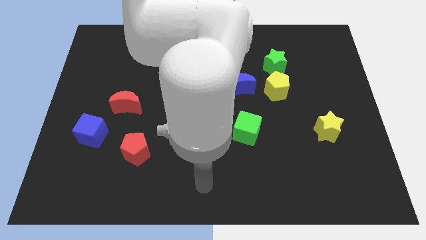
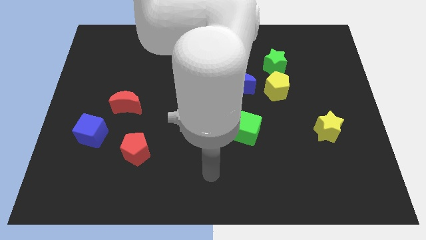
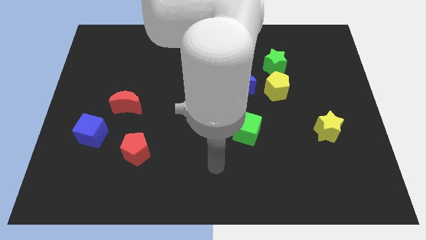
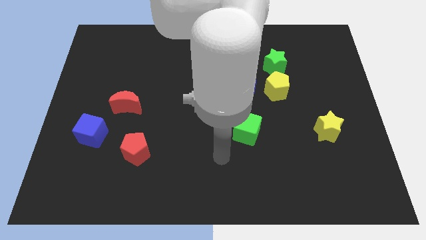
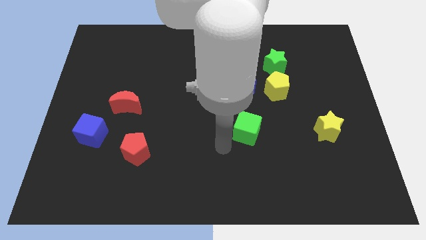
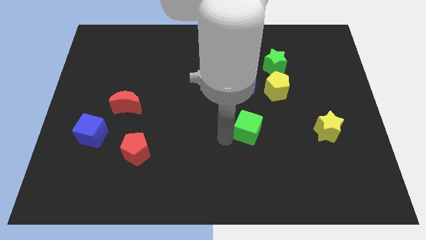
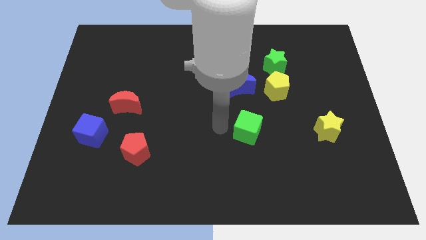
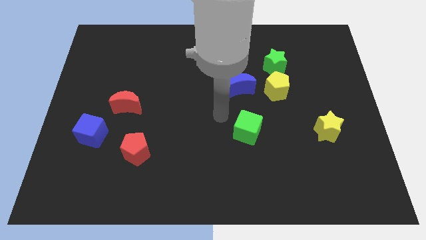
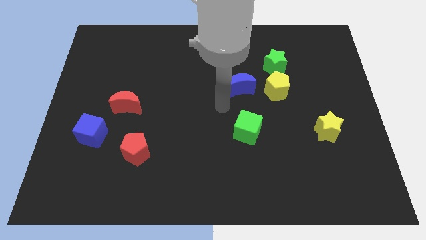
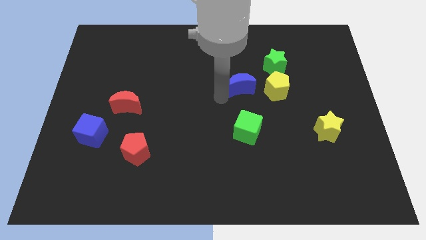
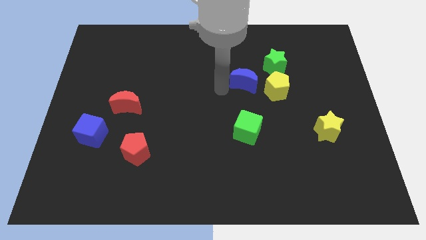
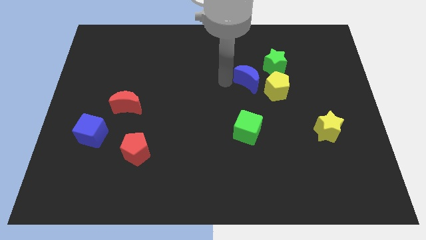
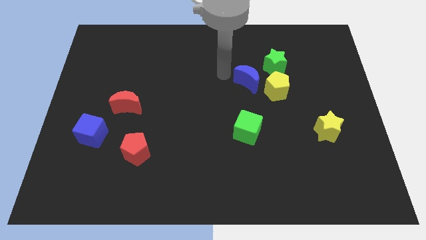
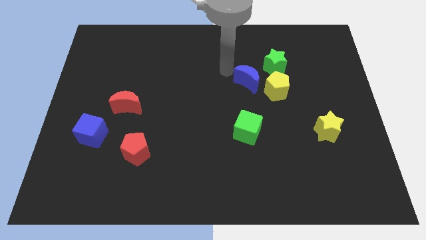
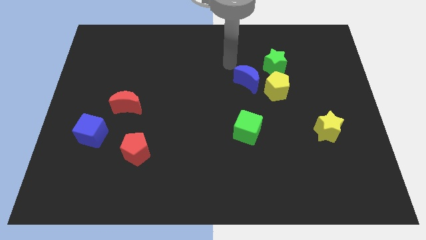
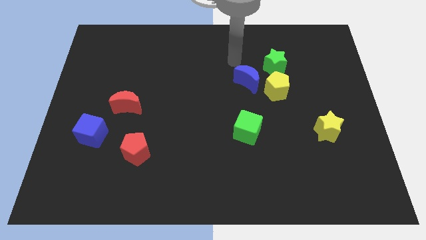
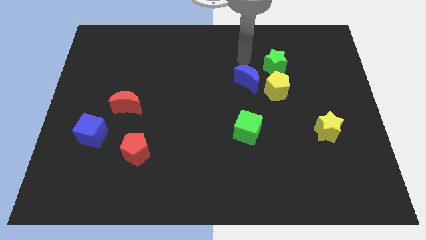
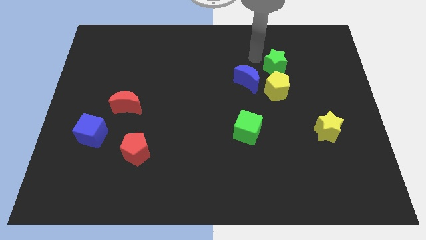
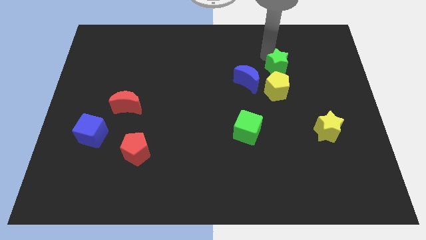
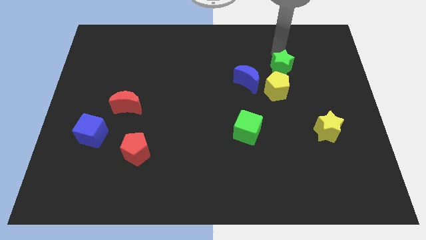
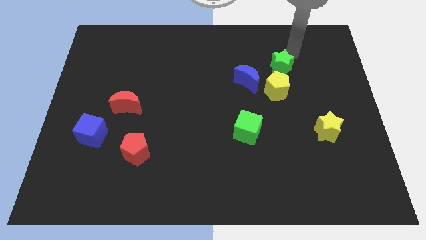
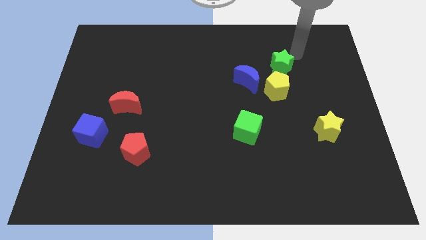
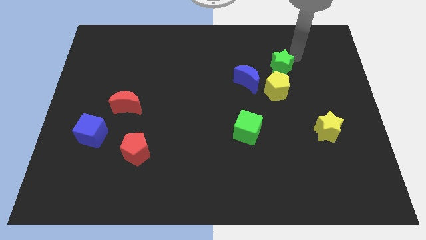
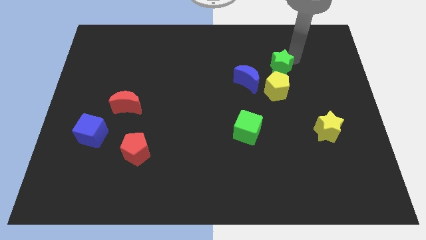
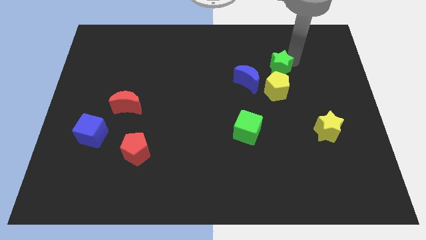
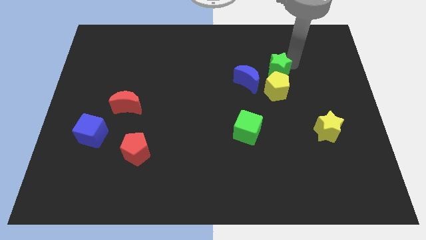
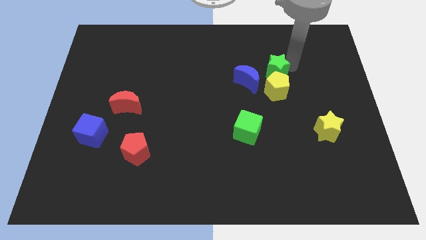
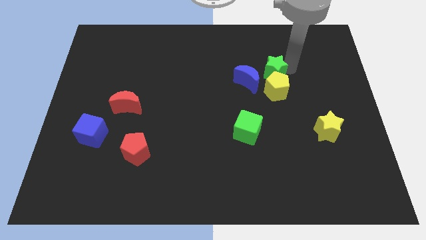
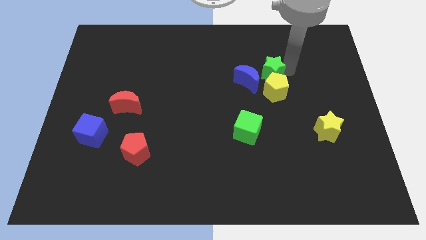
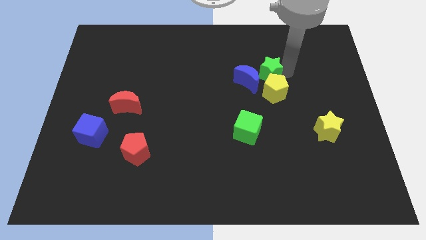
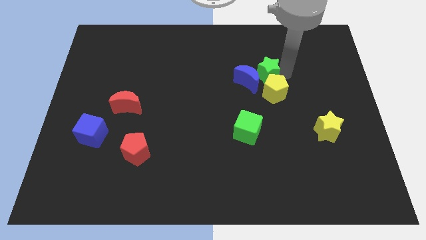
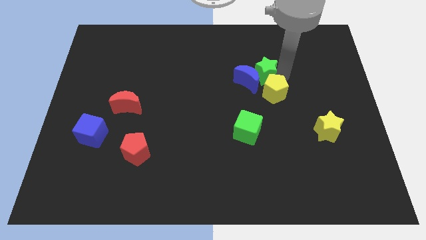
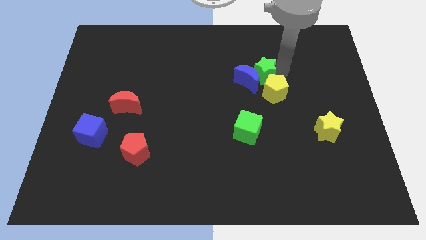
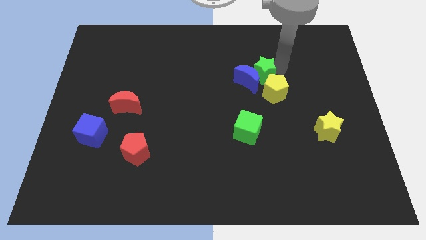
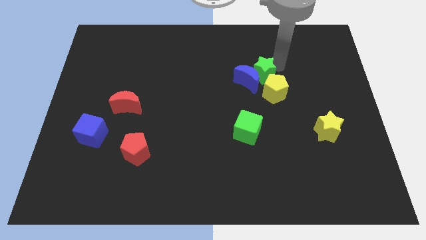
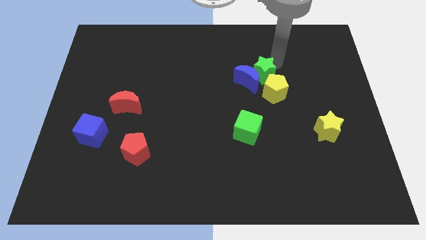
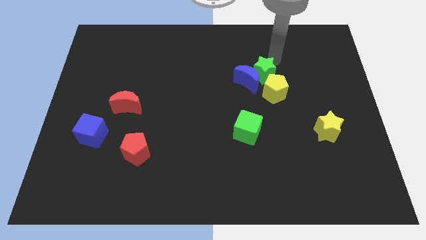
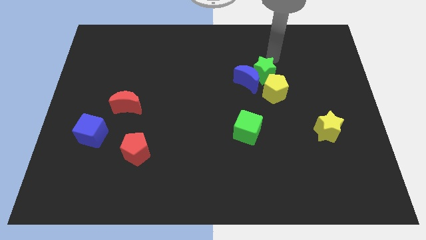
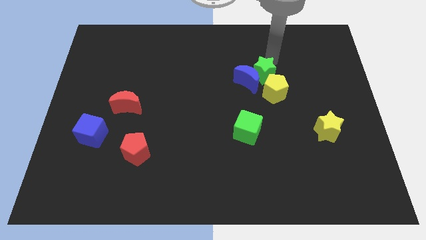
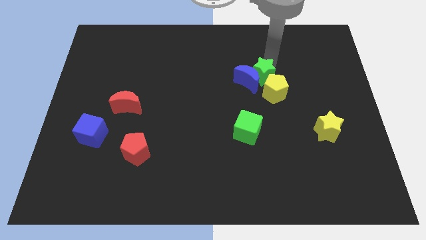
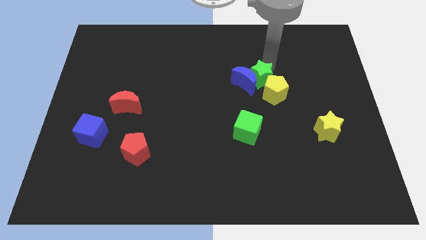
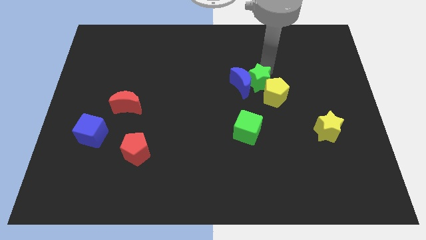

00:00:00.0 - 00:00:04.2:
move the green star downwards and to the left diagonally a little

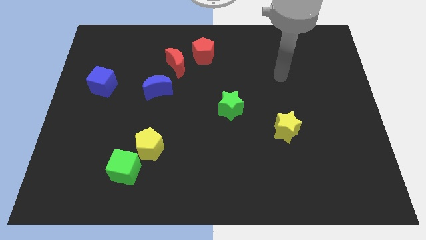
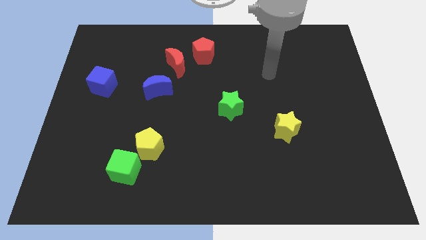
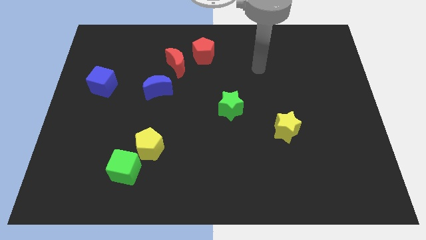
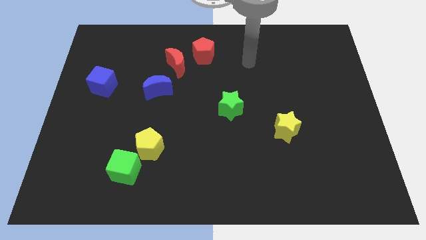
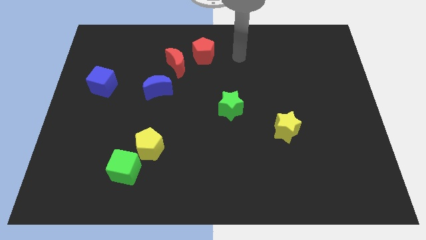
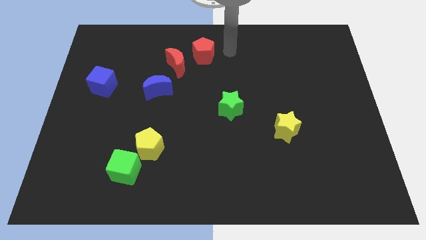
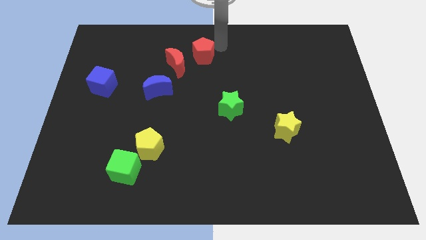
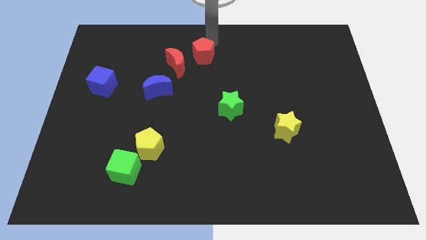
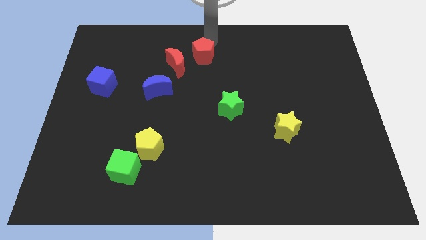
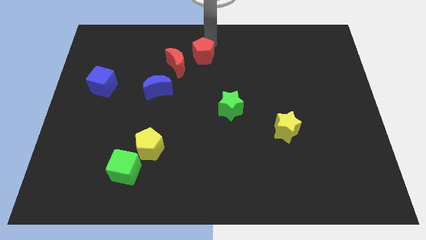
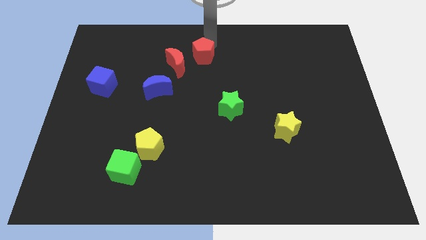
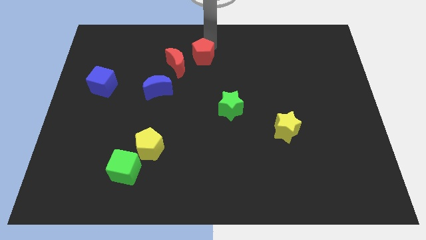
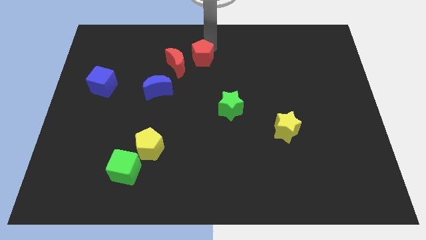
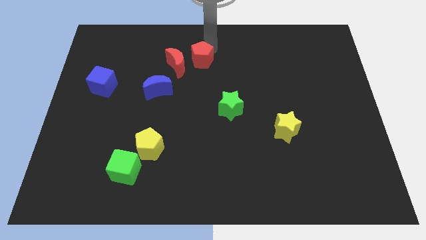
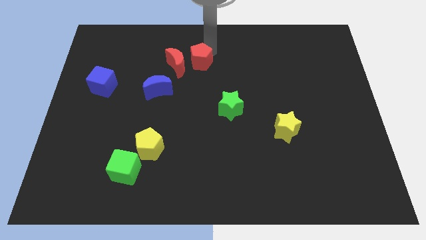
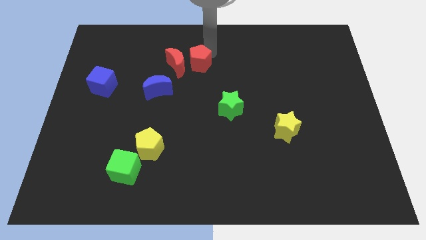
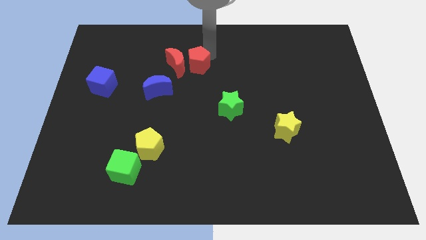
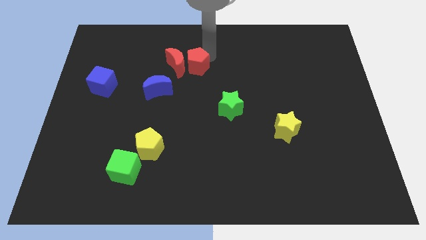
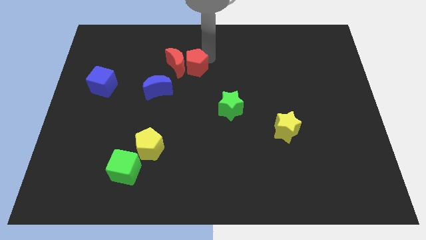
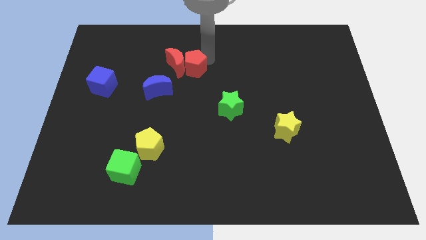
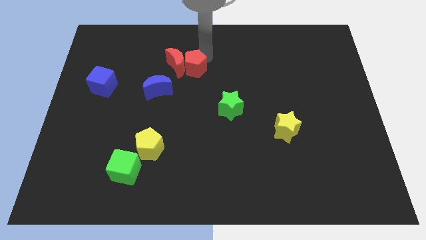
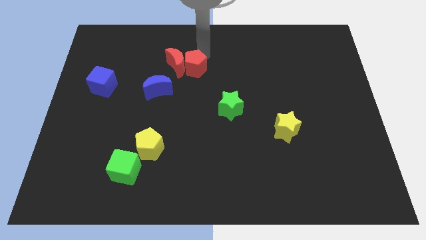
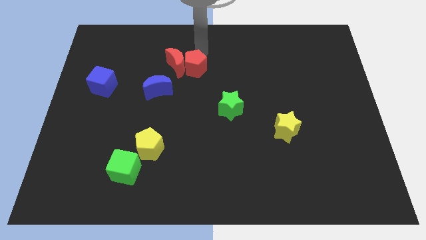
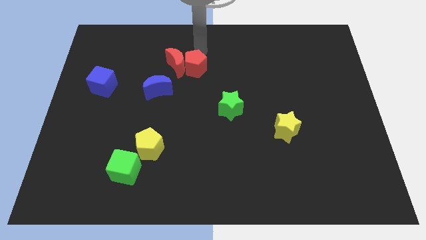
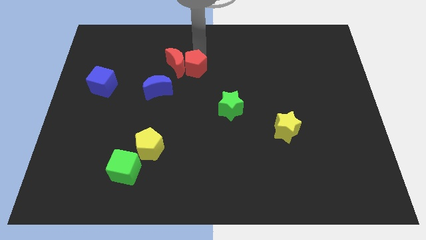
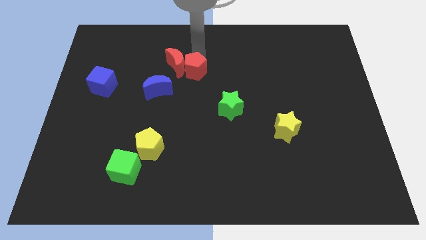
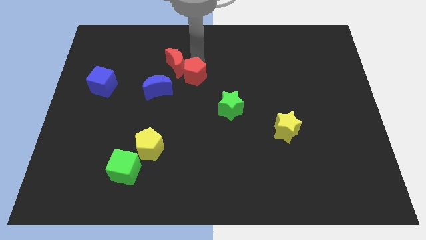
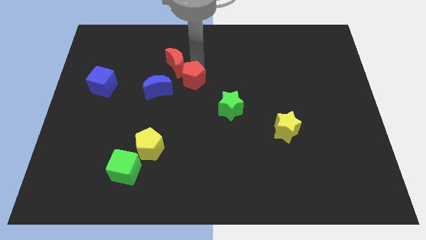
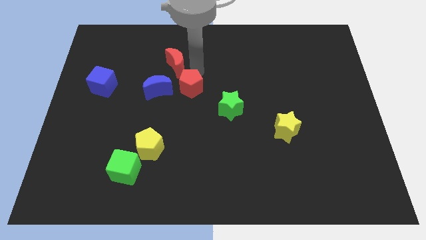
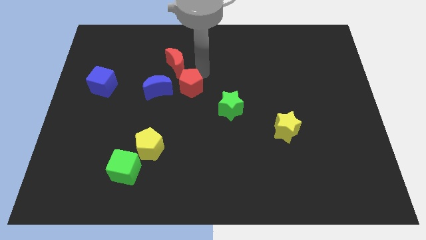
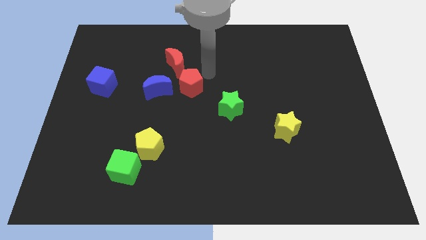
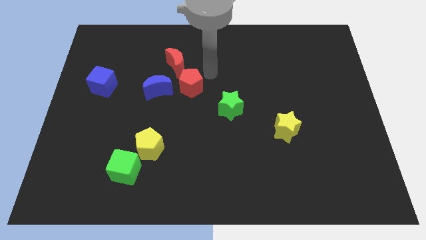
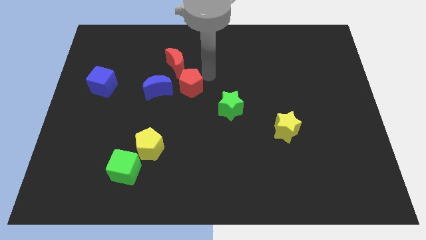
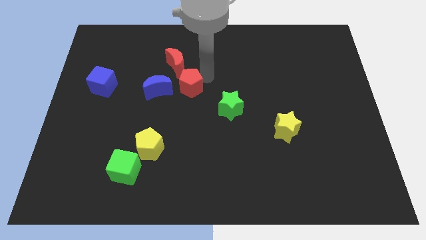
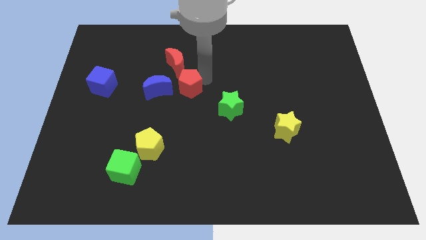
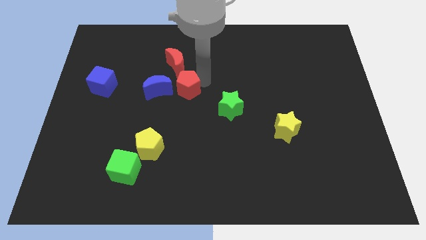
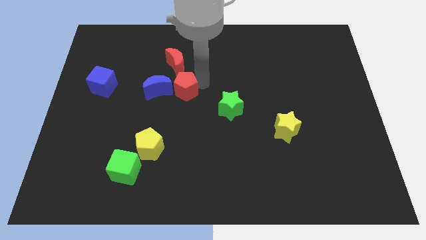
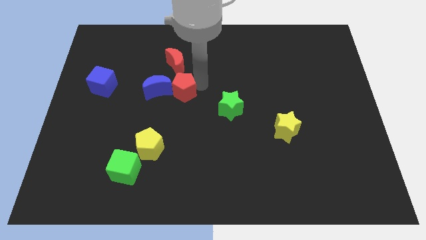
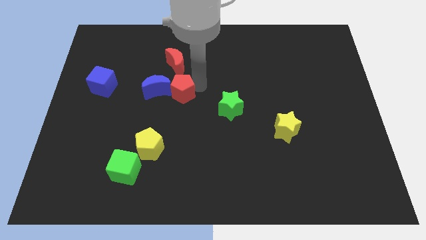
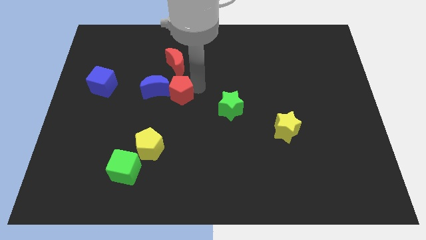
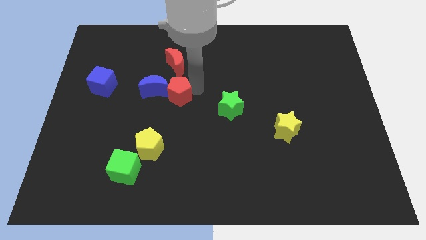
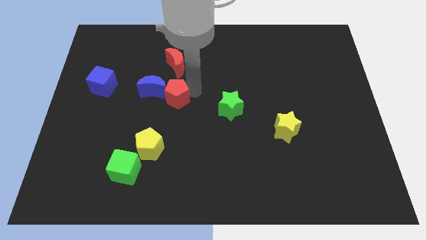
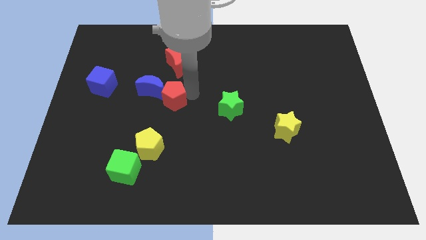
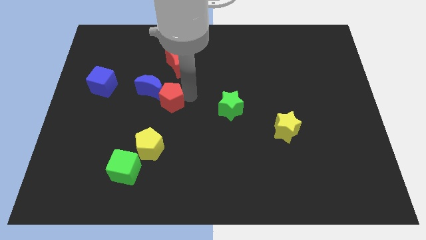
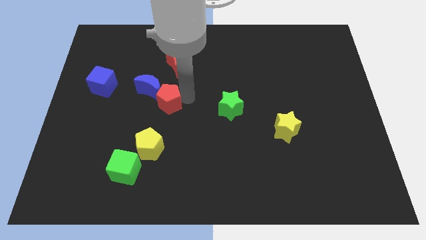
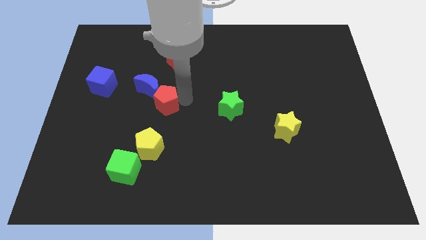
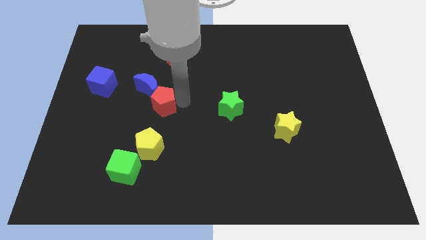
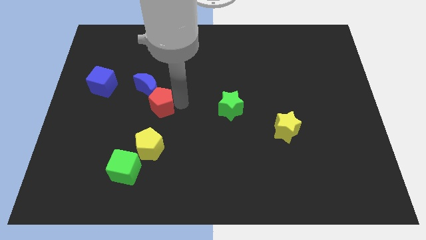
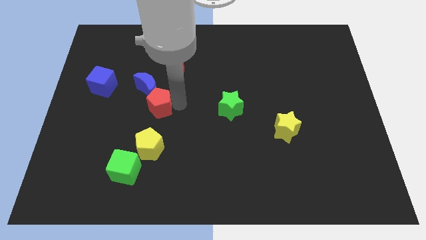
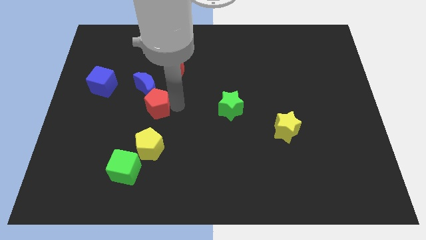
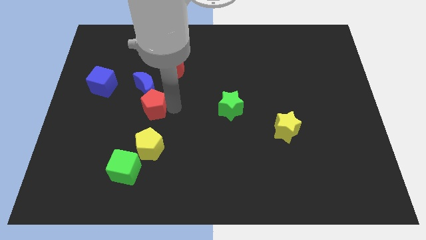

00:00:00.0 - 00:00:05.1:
move the red pentagon down and to the left diagonally
